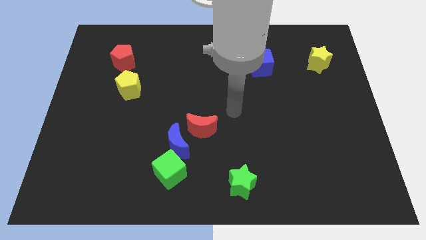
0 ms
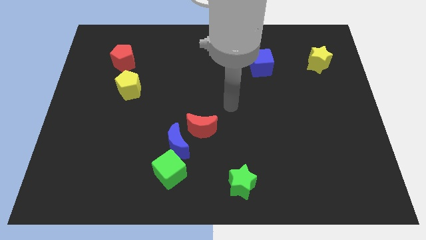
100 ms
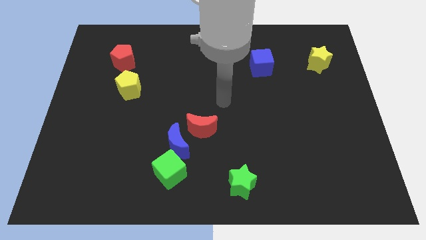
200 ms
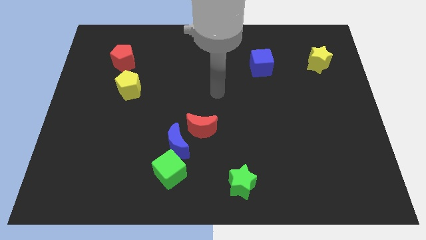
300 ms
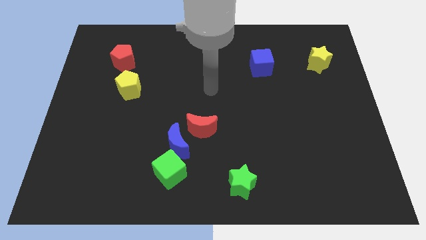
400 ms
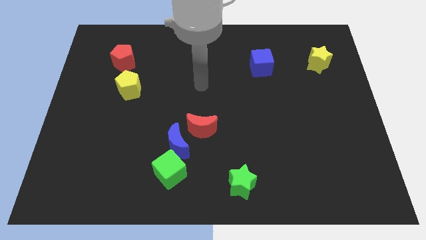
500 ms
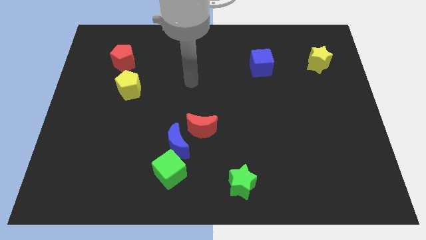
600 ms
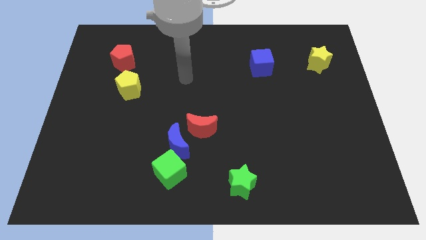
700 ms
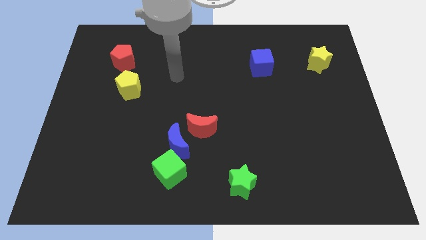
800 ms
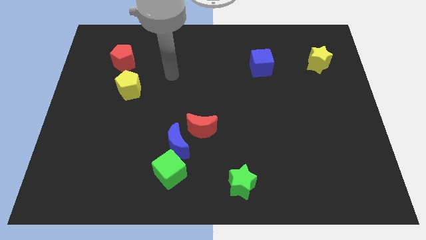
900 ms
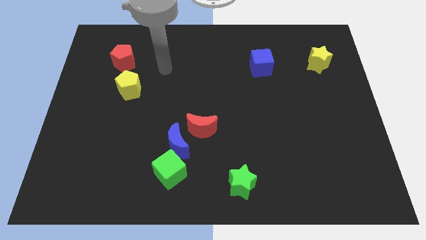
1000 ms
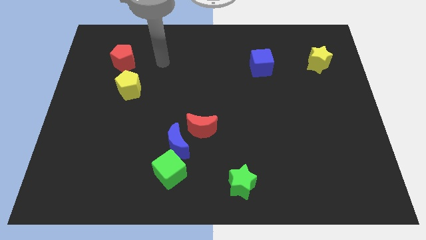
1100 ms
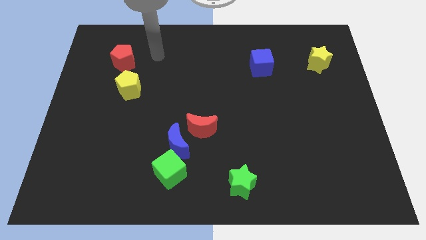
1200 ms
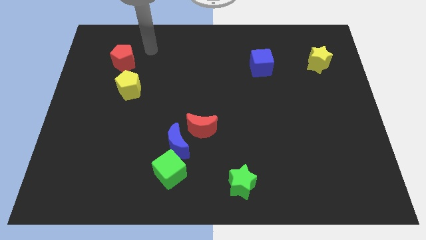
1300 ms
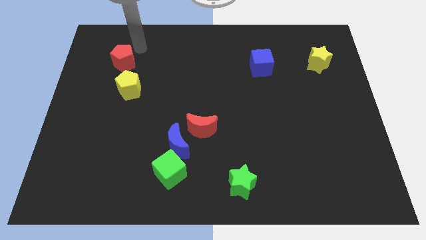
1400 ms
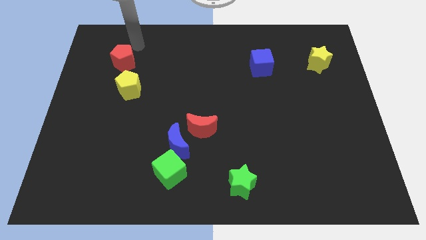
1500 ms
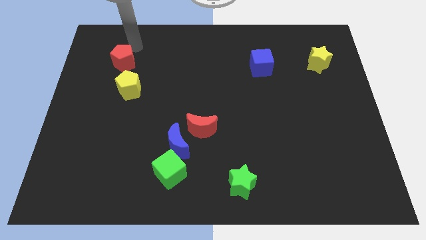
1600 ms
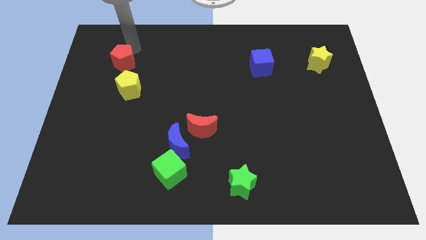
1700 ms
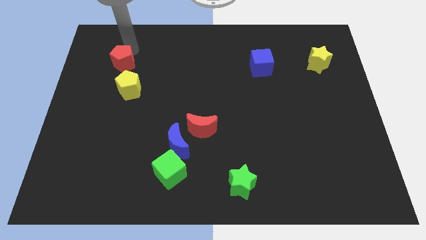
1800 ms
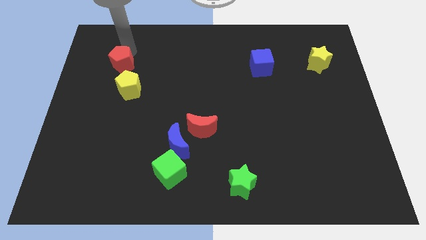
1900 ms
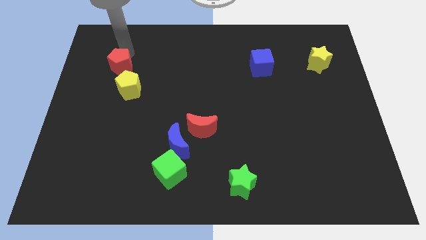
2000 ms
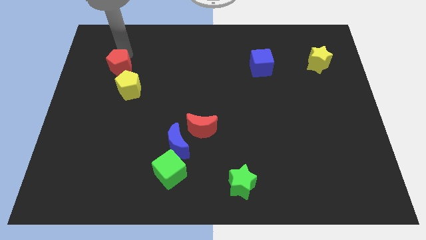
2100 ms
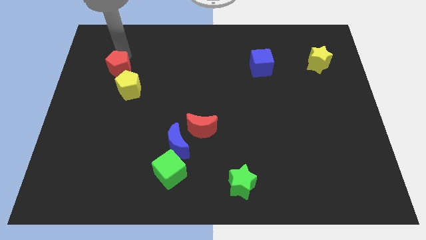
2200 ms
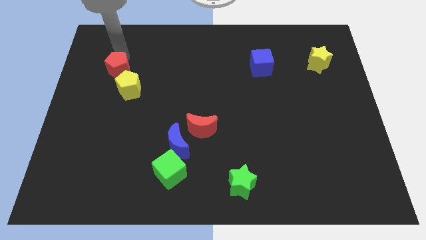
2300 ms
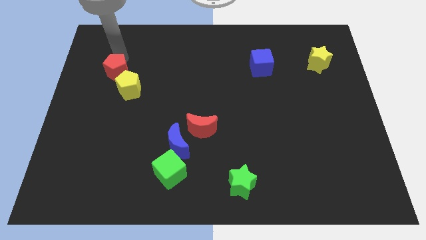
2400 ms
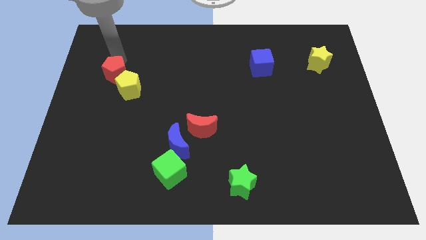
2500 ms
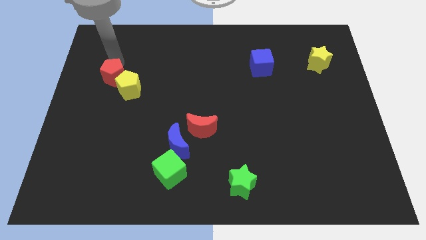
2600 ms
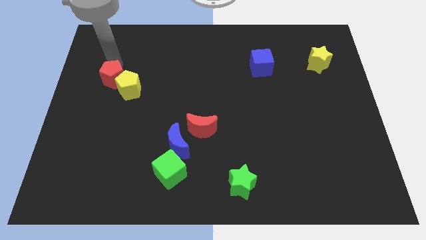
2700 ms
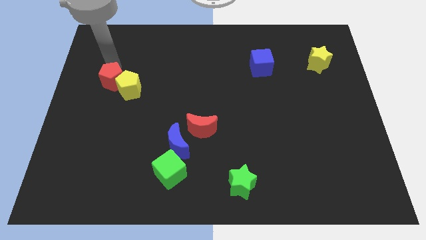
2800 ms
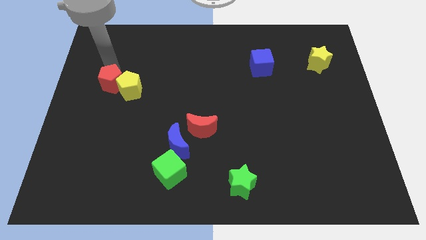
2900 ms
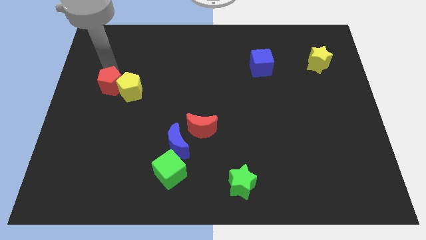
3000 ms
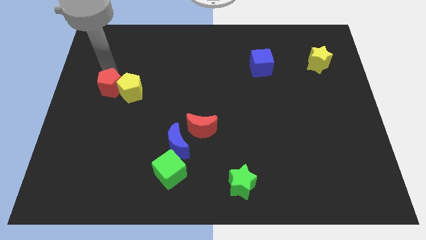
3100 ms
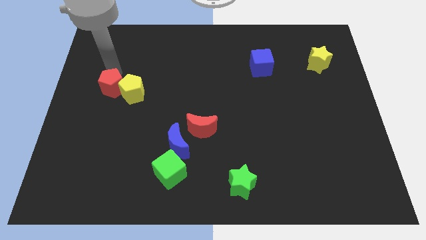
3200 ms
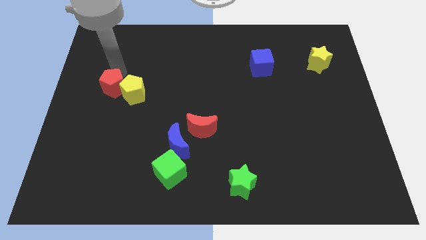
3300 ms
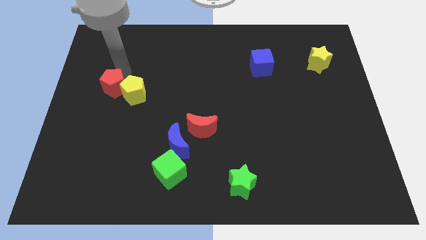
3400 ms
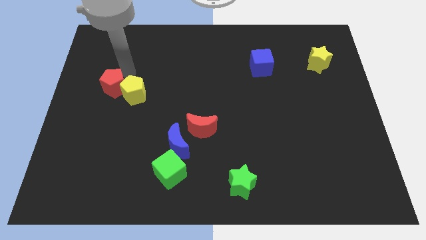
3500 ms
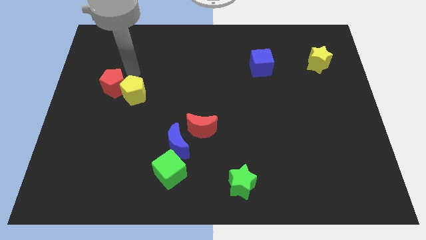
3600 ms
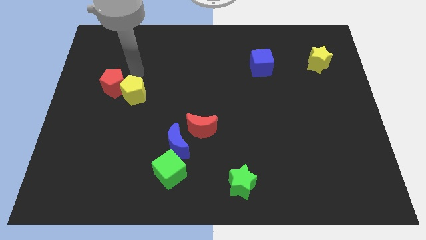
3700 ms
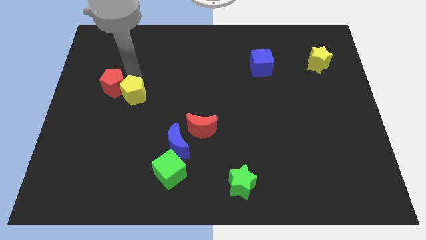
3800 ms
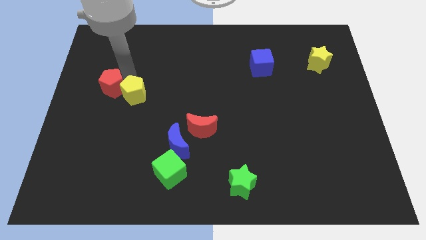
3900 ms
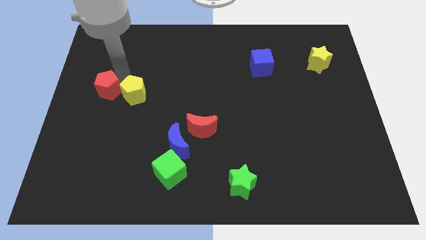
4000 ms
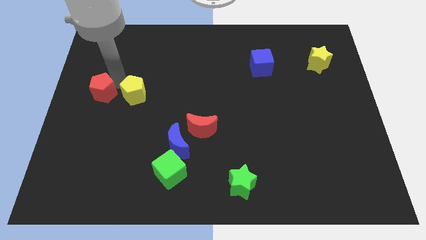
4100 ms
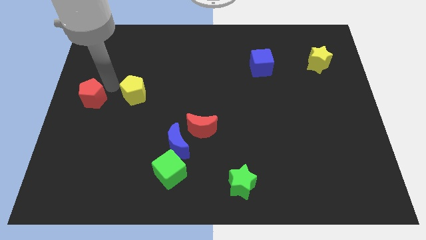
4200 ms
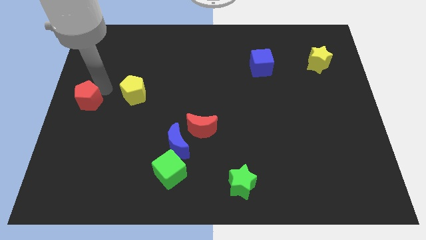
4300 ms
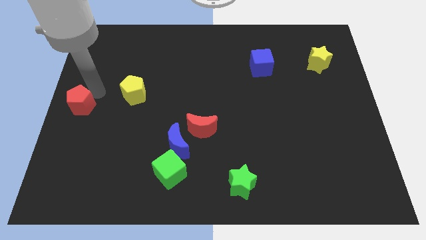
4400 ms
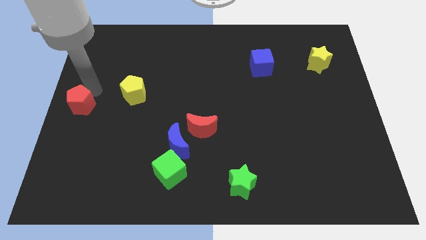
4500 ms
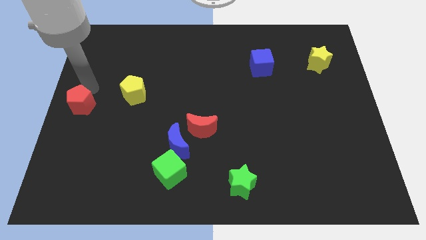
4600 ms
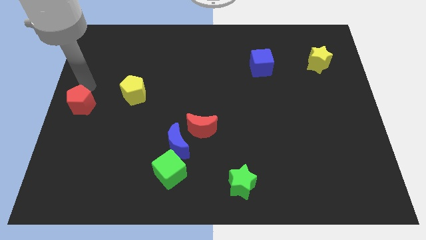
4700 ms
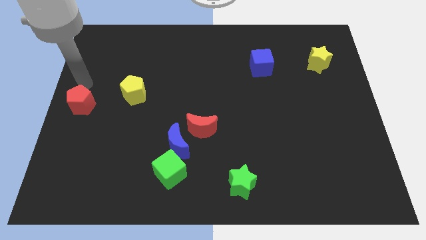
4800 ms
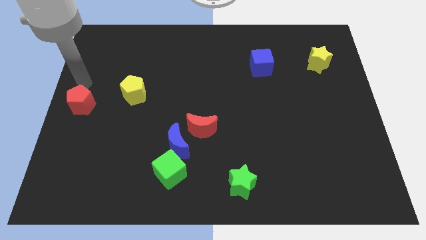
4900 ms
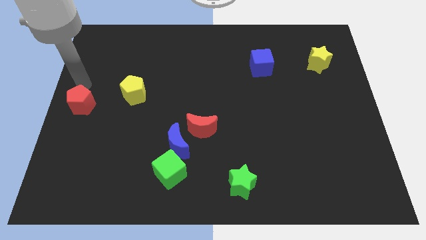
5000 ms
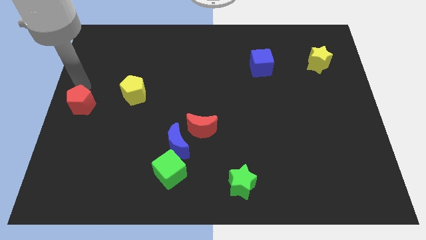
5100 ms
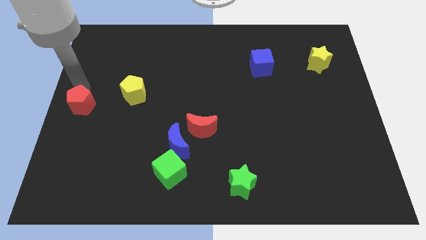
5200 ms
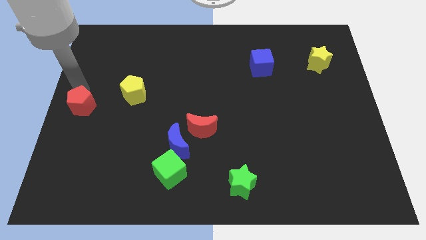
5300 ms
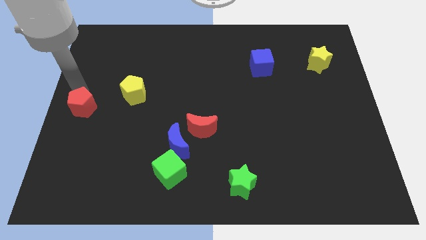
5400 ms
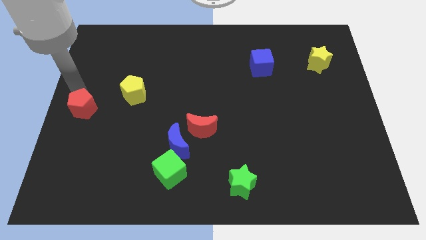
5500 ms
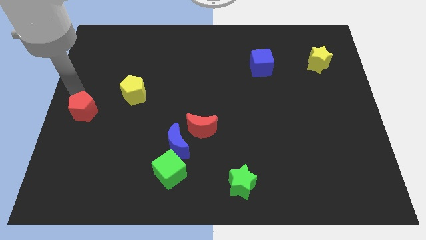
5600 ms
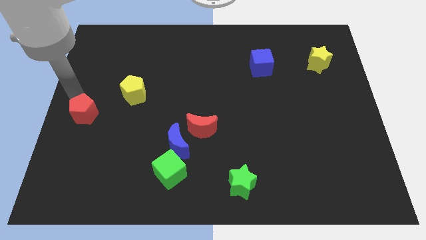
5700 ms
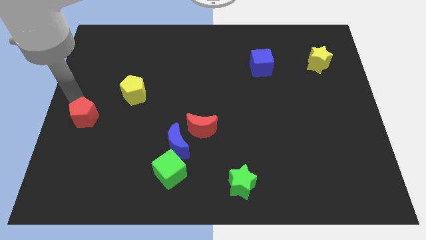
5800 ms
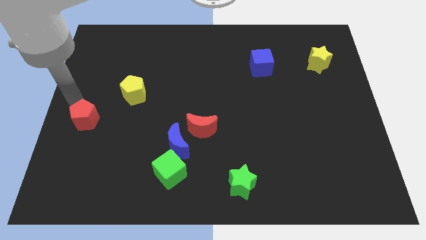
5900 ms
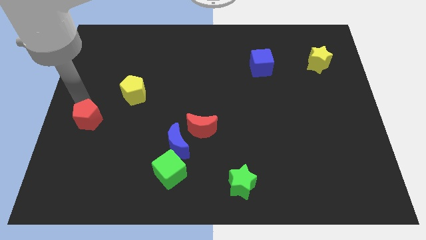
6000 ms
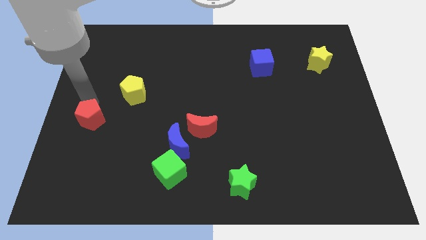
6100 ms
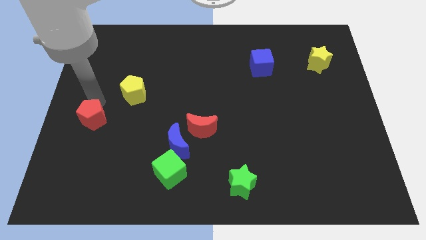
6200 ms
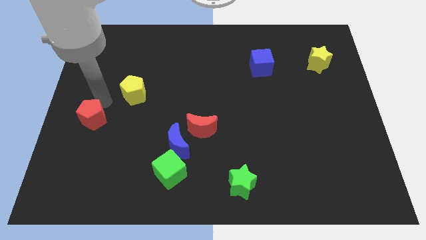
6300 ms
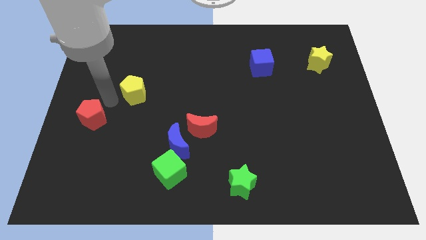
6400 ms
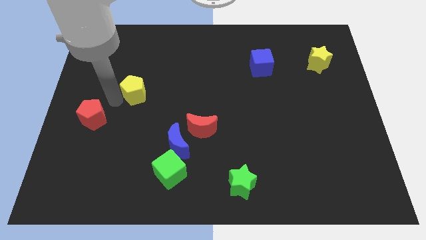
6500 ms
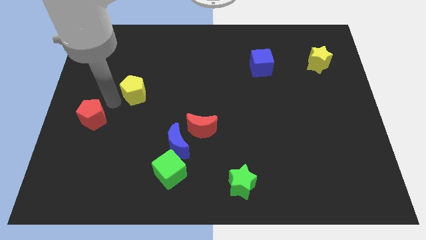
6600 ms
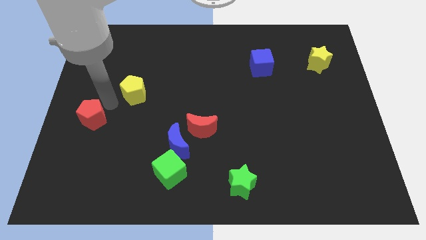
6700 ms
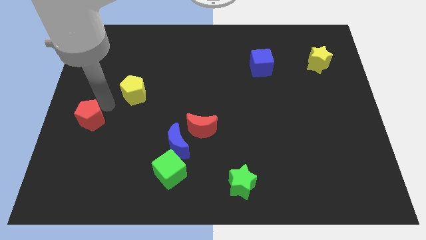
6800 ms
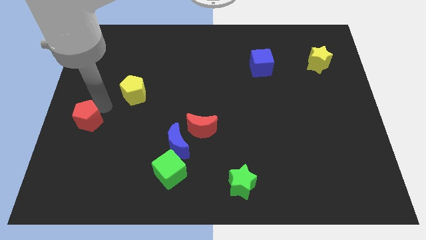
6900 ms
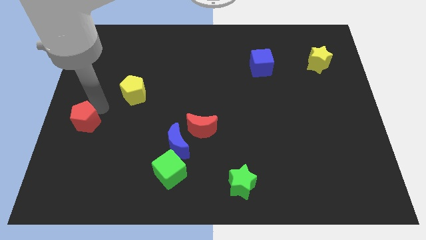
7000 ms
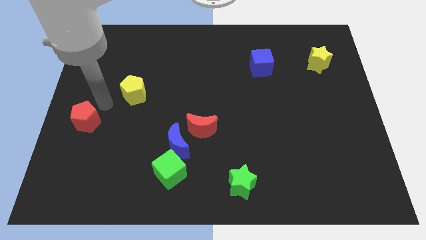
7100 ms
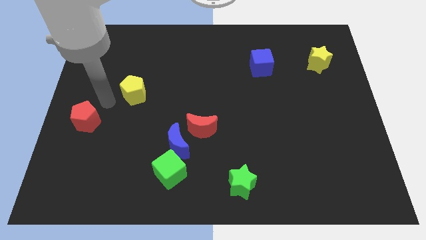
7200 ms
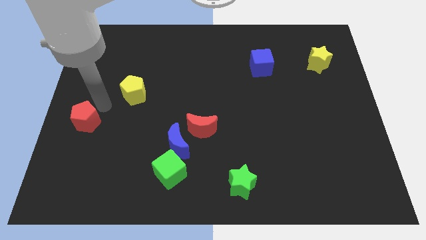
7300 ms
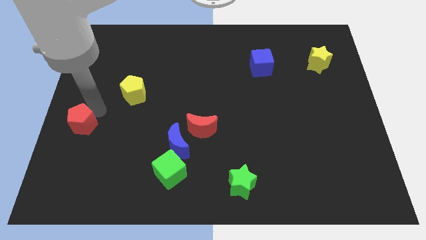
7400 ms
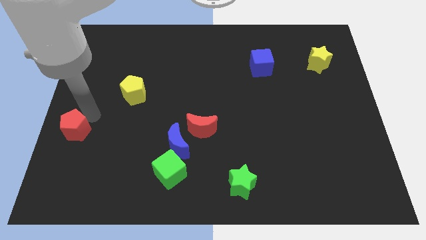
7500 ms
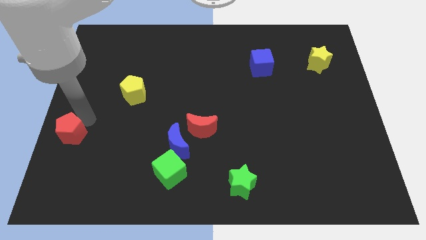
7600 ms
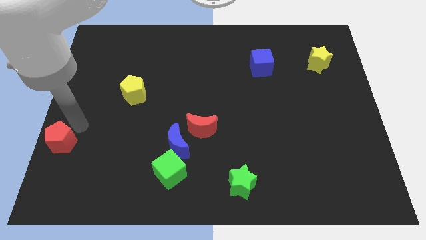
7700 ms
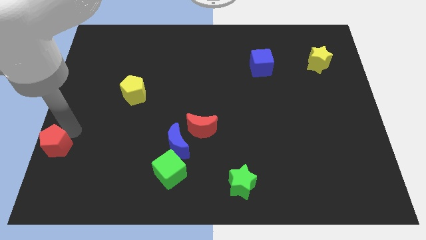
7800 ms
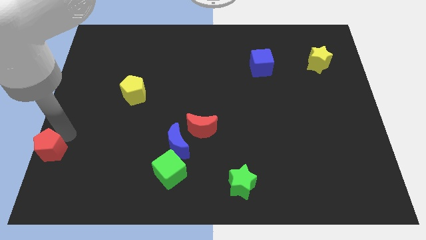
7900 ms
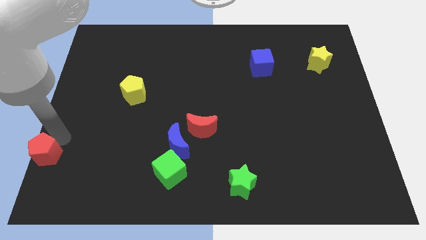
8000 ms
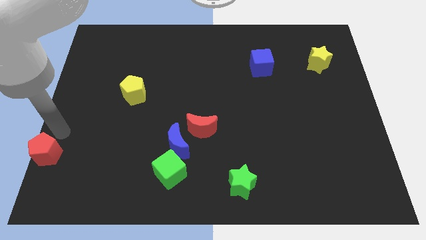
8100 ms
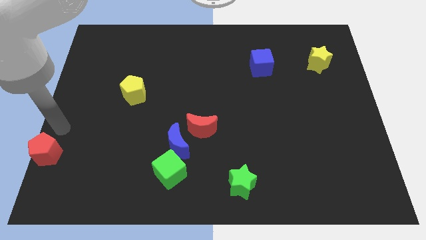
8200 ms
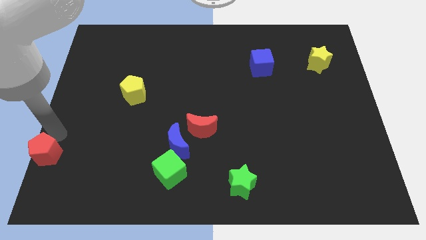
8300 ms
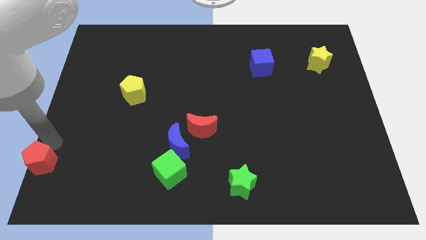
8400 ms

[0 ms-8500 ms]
slide the red pentagon to the bottom left of the board
